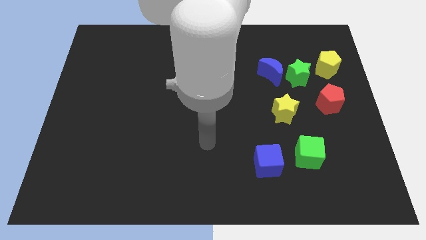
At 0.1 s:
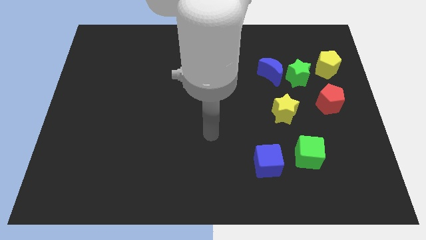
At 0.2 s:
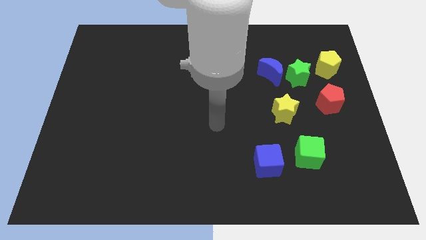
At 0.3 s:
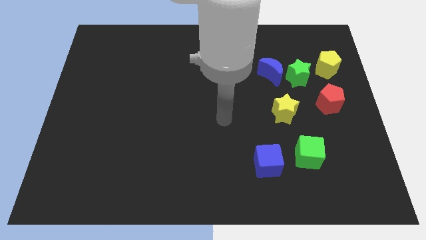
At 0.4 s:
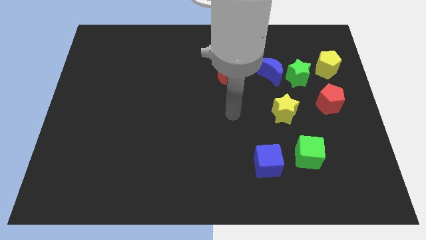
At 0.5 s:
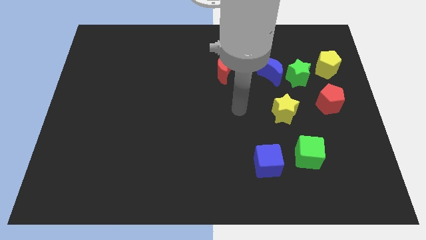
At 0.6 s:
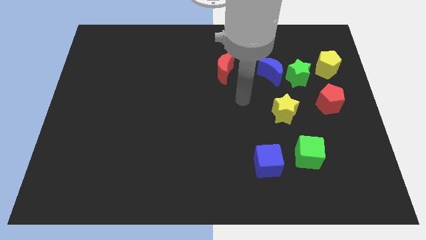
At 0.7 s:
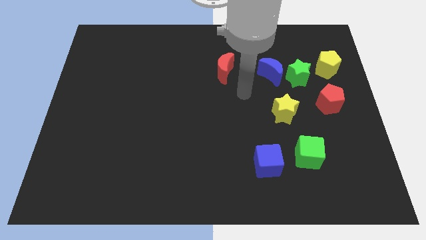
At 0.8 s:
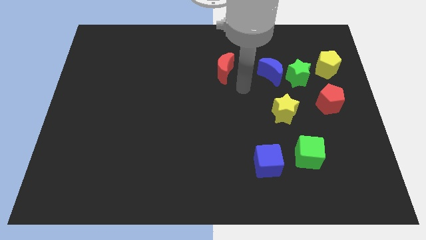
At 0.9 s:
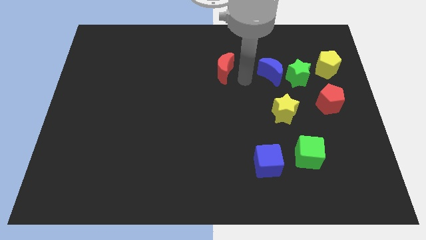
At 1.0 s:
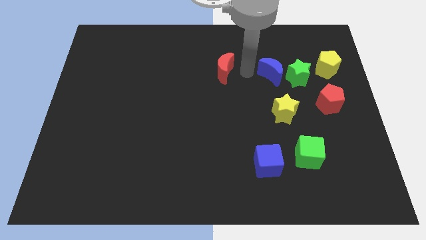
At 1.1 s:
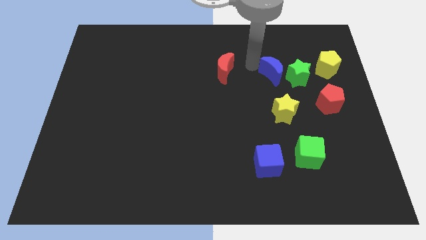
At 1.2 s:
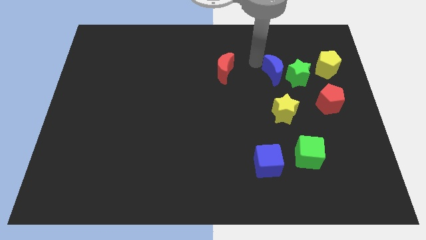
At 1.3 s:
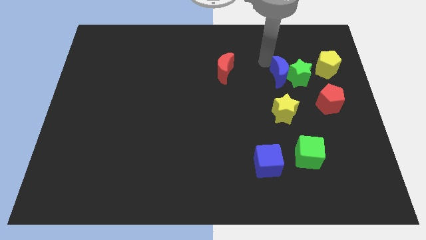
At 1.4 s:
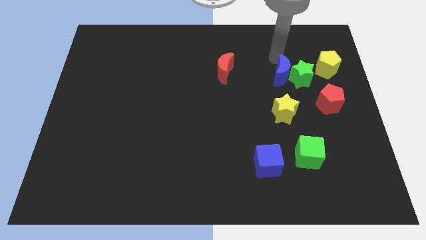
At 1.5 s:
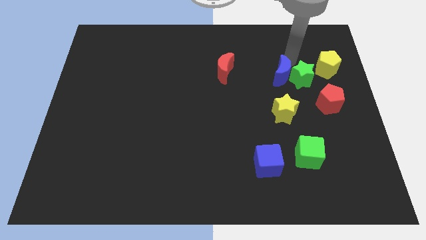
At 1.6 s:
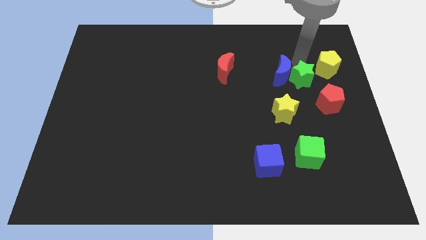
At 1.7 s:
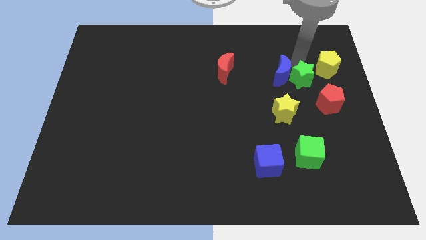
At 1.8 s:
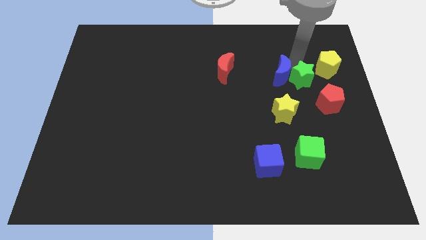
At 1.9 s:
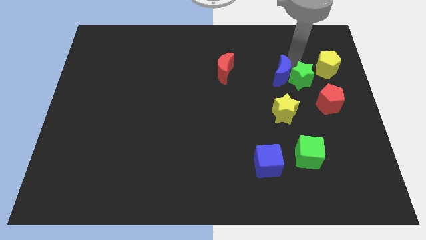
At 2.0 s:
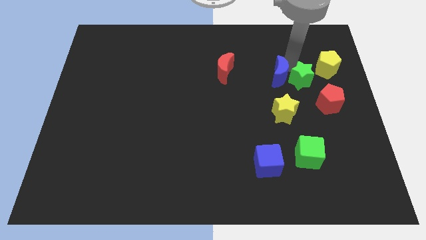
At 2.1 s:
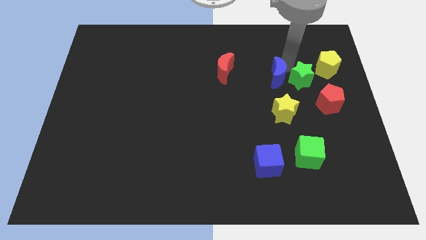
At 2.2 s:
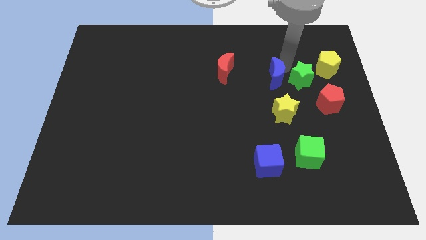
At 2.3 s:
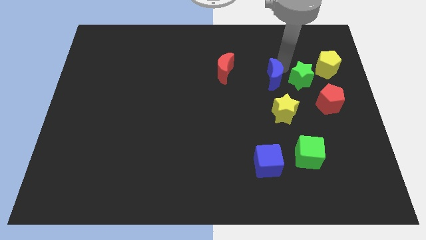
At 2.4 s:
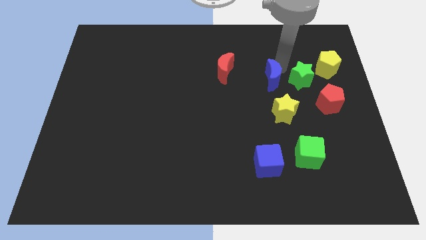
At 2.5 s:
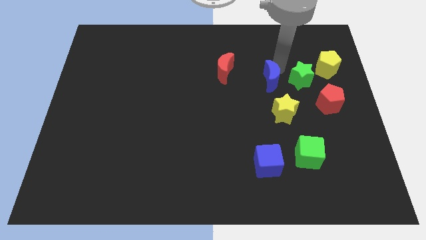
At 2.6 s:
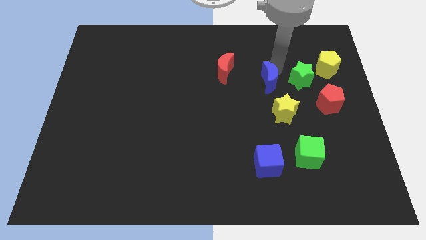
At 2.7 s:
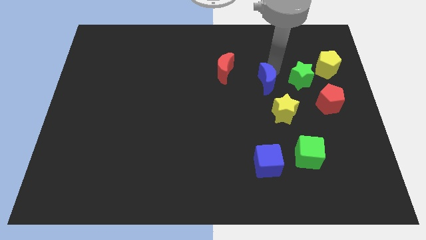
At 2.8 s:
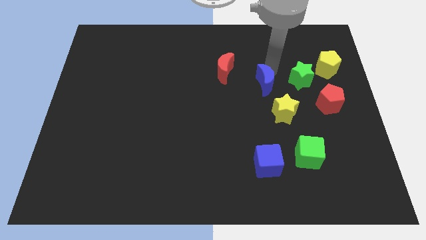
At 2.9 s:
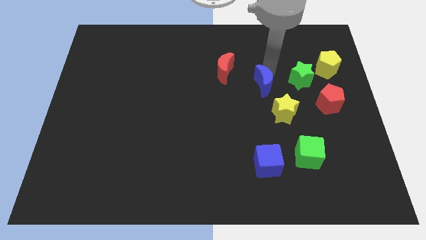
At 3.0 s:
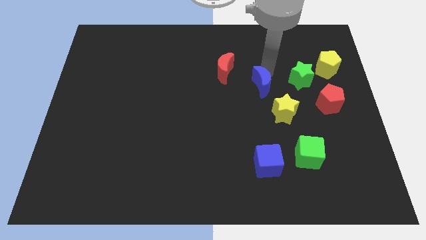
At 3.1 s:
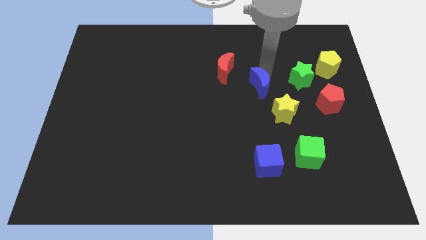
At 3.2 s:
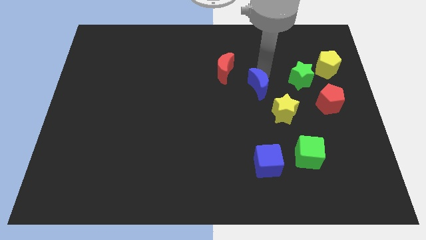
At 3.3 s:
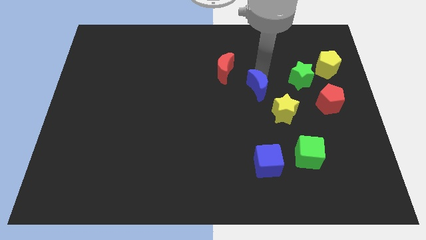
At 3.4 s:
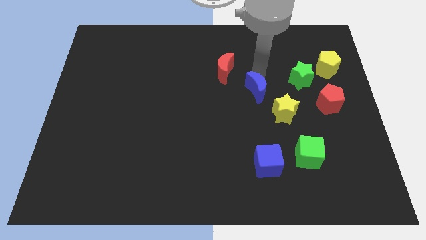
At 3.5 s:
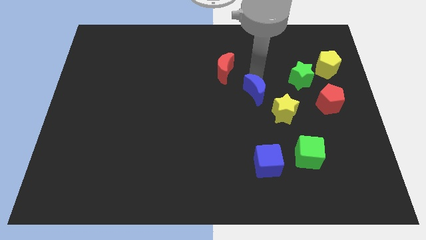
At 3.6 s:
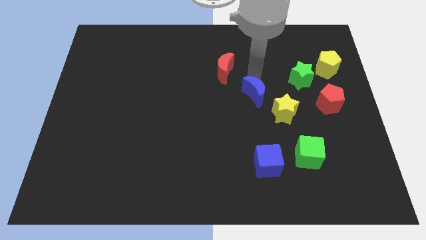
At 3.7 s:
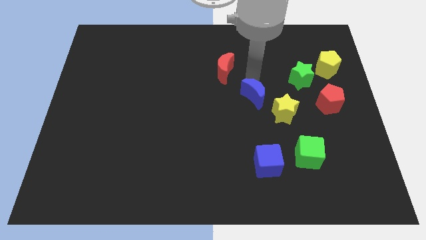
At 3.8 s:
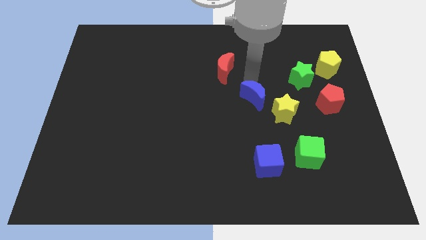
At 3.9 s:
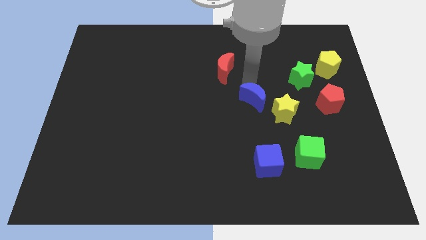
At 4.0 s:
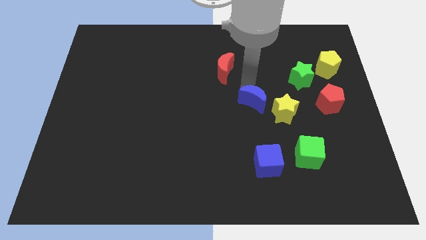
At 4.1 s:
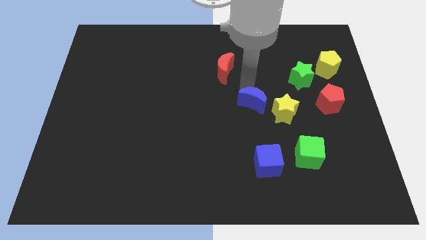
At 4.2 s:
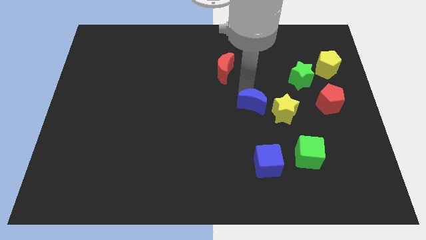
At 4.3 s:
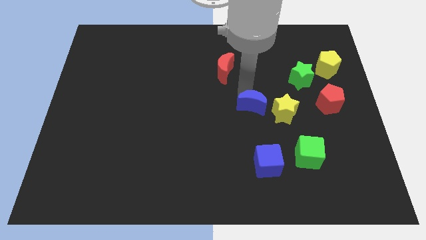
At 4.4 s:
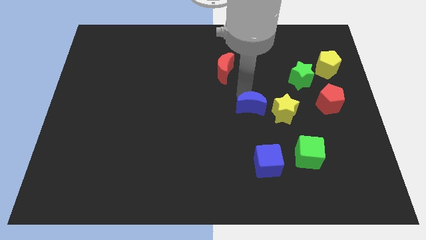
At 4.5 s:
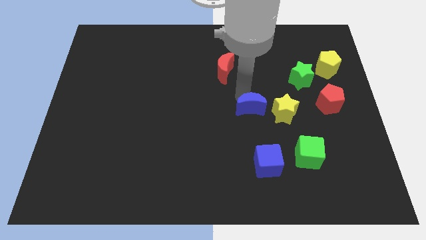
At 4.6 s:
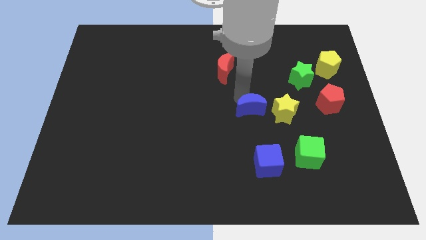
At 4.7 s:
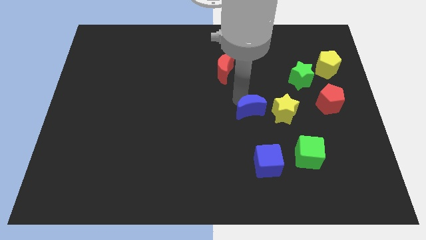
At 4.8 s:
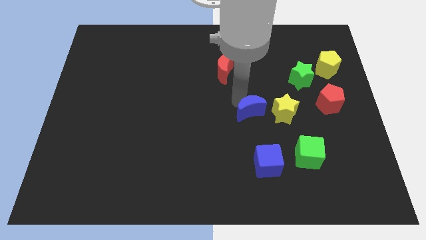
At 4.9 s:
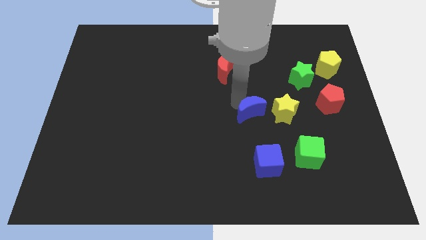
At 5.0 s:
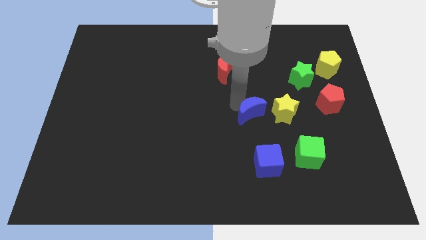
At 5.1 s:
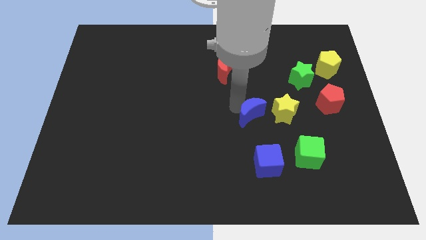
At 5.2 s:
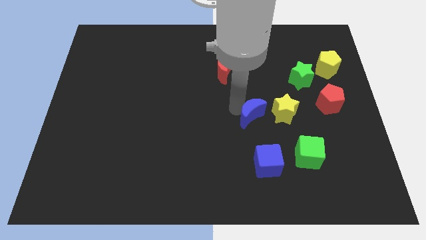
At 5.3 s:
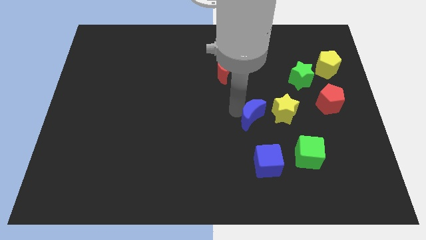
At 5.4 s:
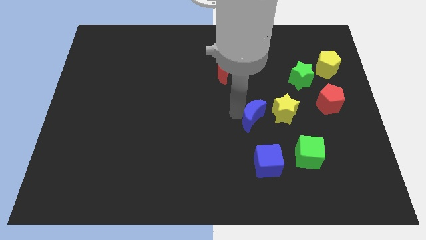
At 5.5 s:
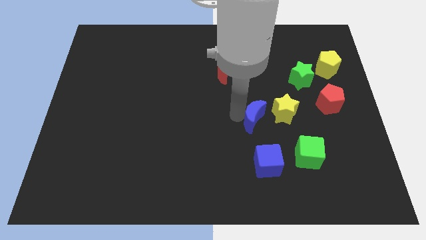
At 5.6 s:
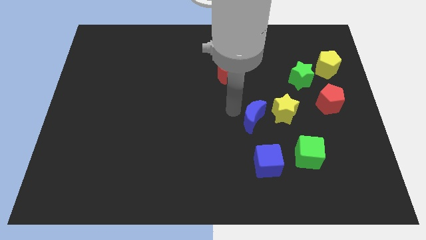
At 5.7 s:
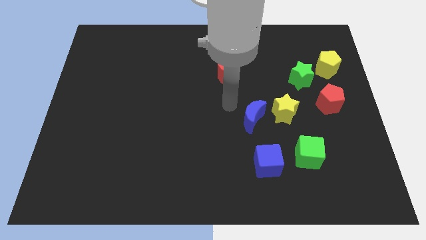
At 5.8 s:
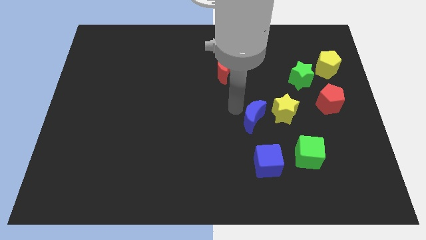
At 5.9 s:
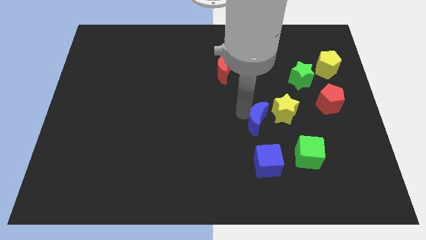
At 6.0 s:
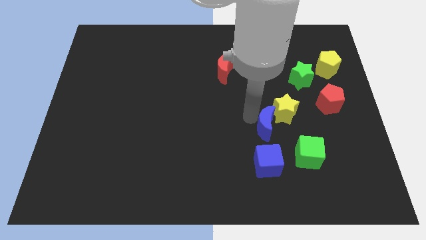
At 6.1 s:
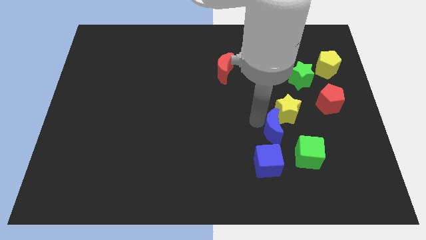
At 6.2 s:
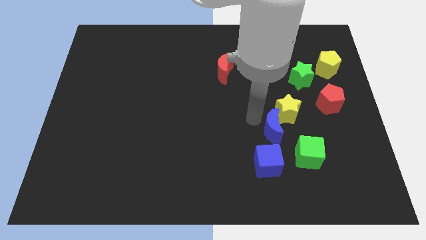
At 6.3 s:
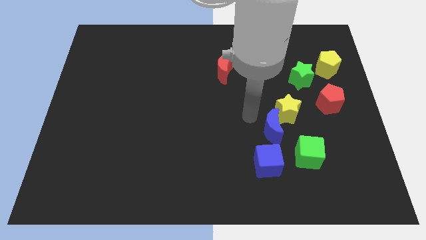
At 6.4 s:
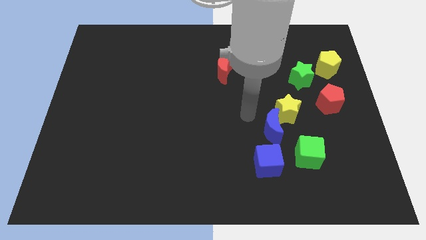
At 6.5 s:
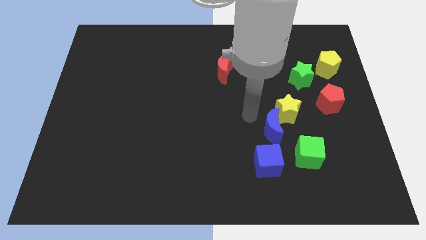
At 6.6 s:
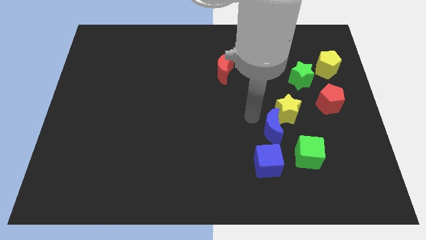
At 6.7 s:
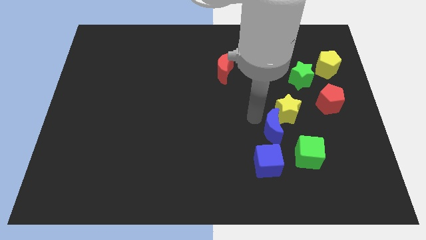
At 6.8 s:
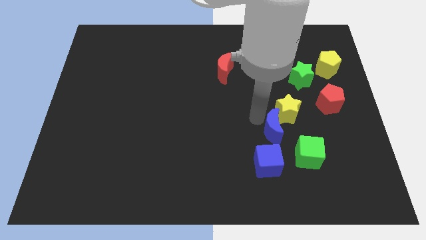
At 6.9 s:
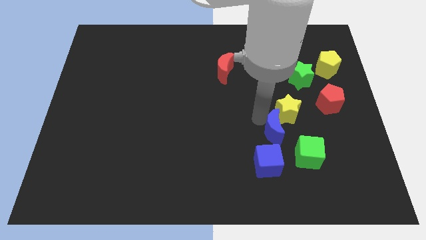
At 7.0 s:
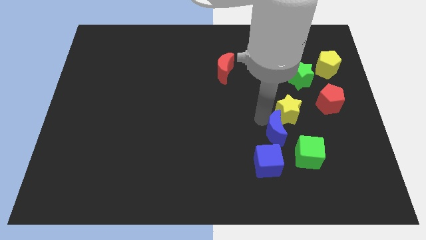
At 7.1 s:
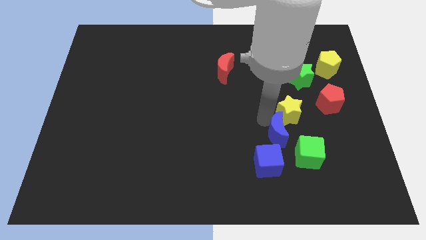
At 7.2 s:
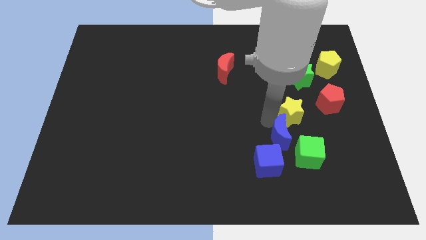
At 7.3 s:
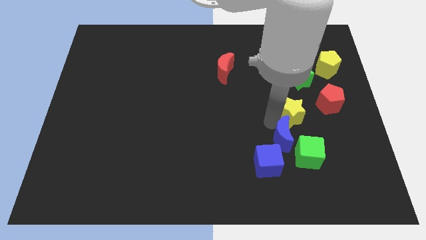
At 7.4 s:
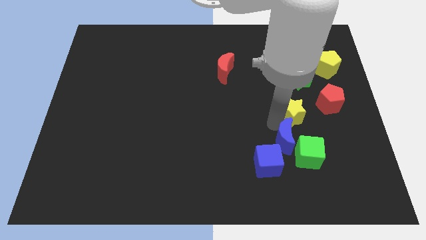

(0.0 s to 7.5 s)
move the blue moon next to the green cube

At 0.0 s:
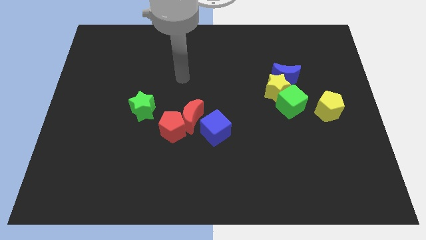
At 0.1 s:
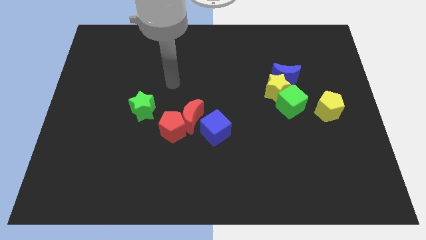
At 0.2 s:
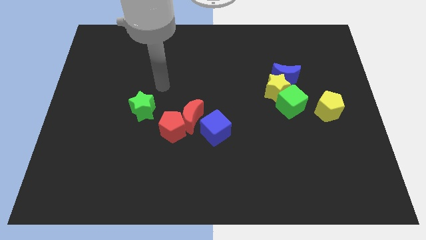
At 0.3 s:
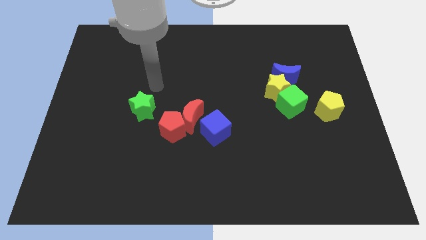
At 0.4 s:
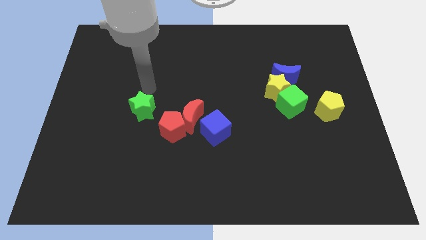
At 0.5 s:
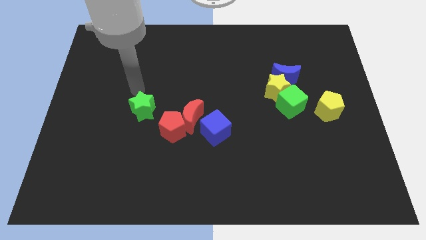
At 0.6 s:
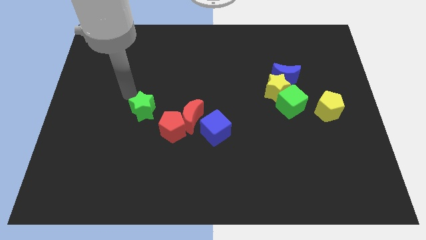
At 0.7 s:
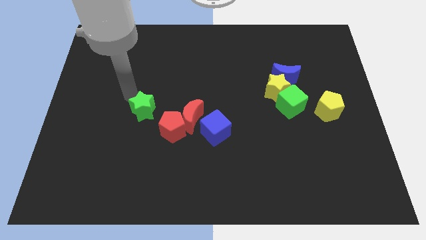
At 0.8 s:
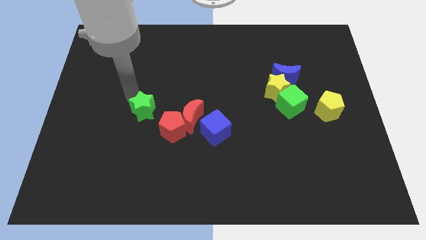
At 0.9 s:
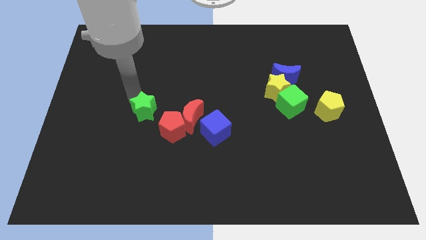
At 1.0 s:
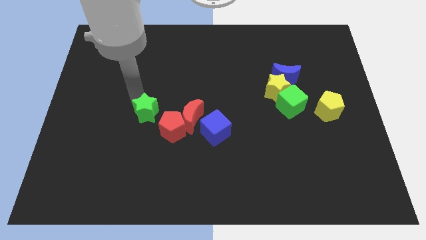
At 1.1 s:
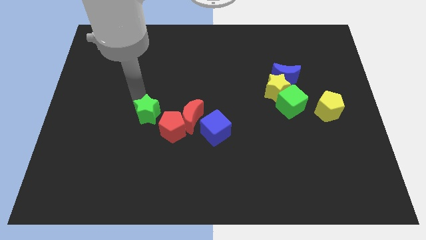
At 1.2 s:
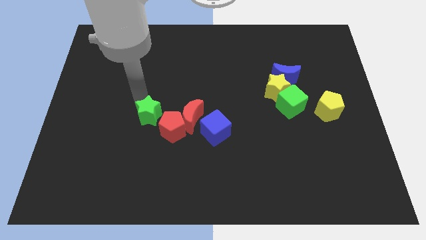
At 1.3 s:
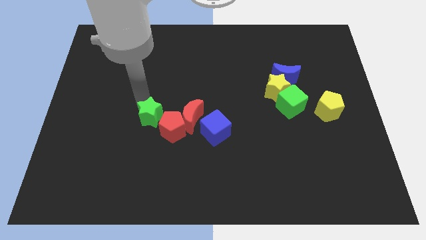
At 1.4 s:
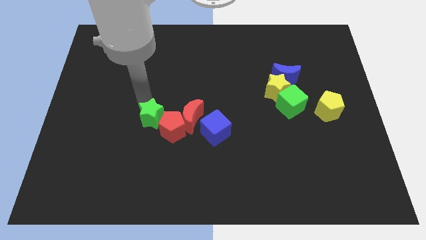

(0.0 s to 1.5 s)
move the green star towards the red pentagon
